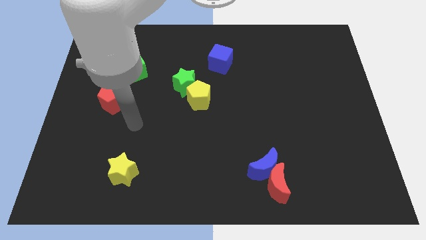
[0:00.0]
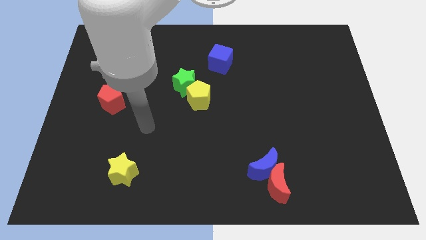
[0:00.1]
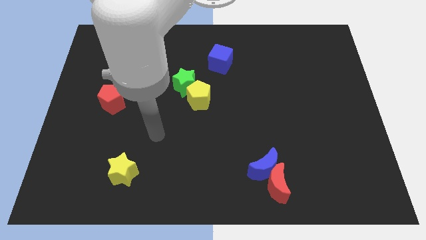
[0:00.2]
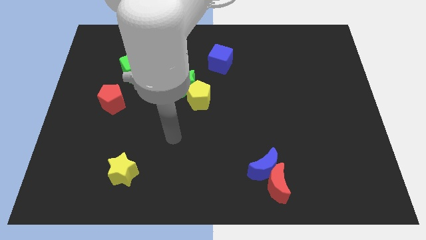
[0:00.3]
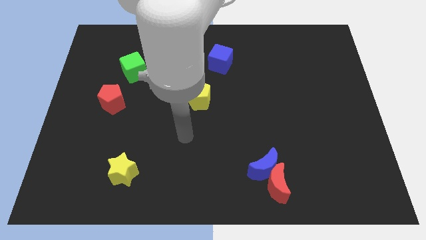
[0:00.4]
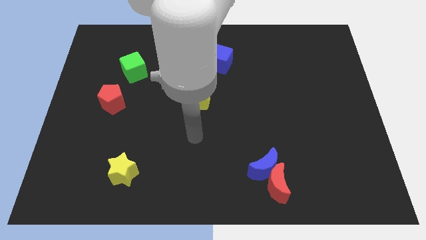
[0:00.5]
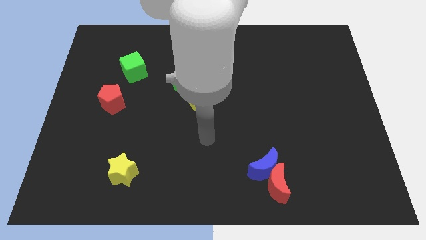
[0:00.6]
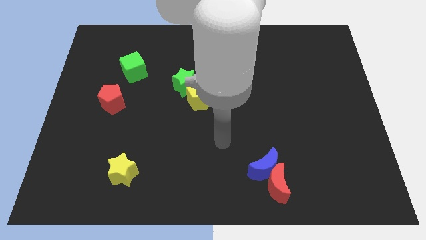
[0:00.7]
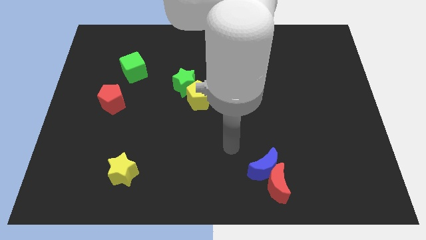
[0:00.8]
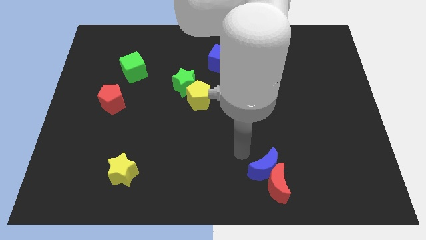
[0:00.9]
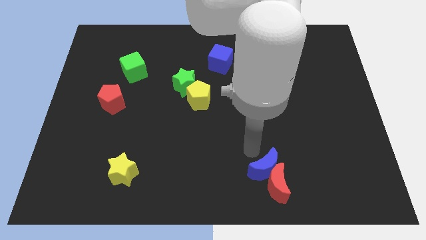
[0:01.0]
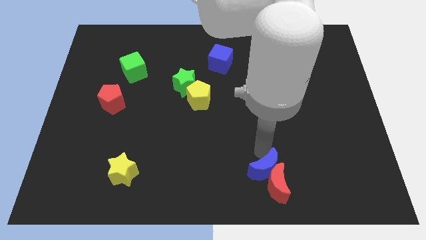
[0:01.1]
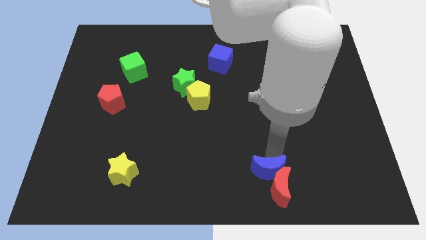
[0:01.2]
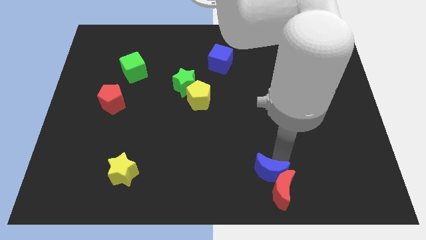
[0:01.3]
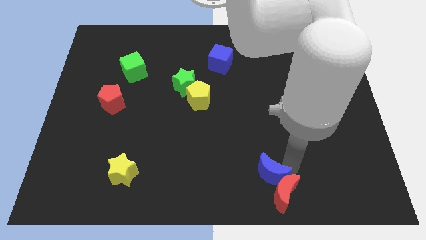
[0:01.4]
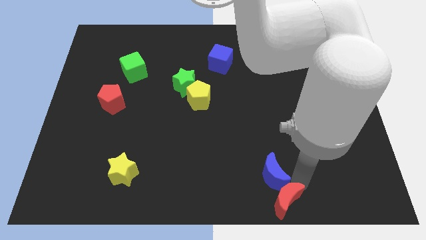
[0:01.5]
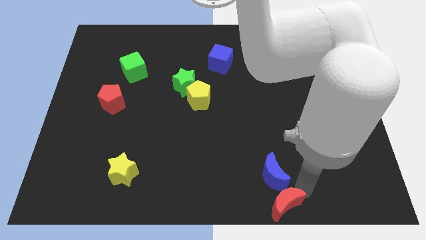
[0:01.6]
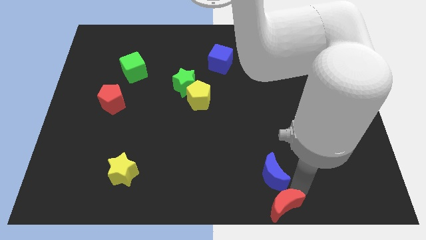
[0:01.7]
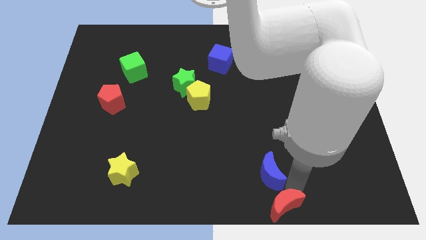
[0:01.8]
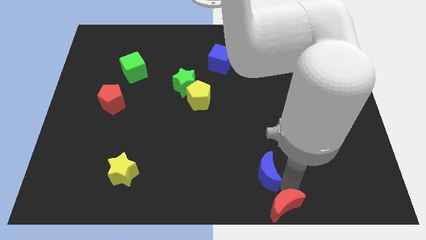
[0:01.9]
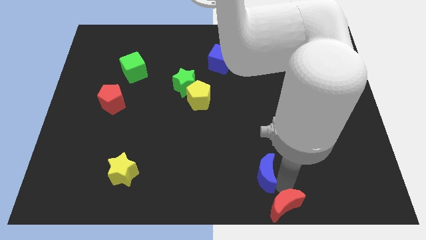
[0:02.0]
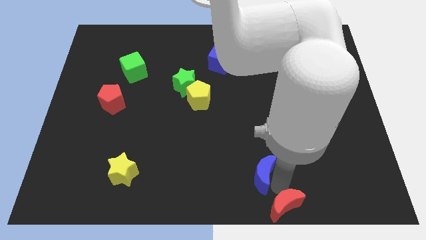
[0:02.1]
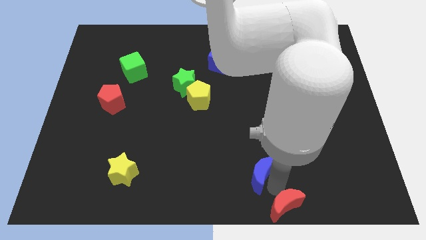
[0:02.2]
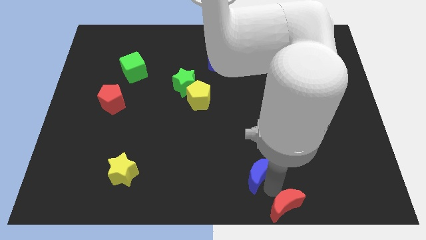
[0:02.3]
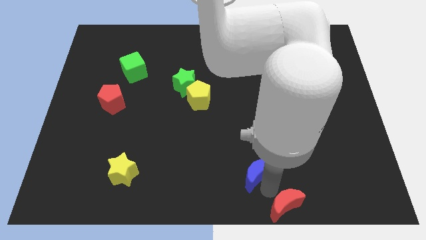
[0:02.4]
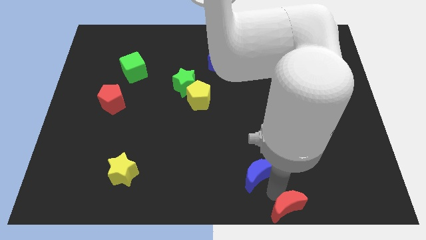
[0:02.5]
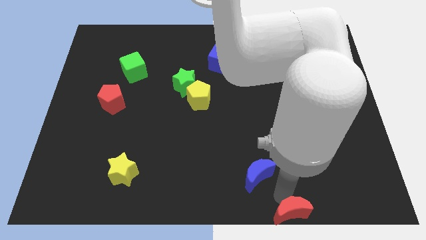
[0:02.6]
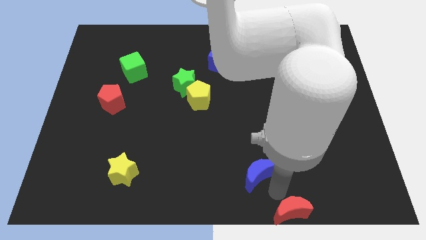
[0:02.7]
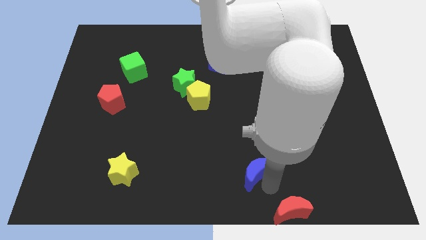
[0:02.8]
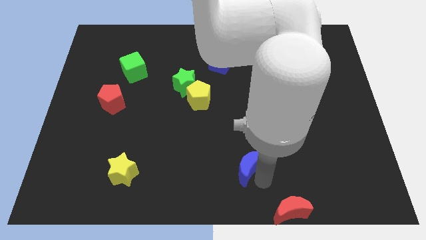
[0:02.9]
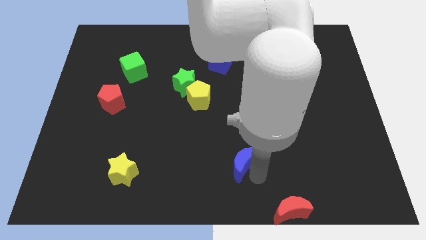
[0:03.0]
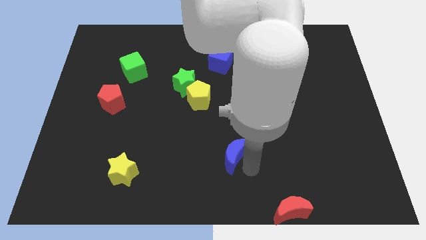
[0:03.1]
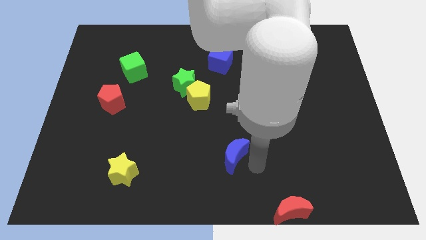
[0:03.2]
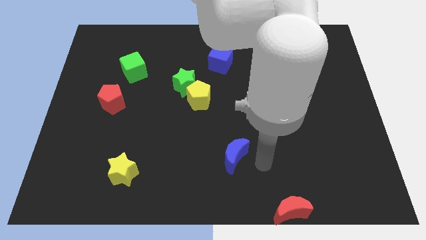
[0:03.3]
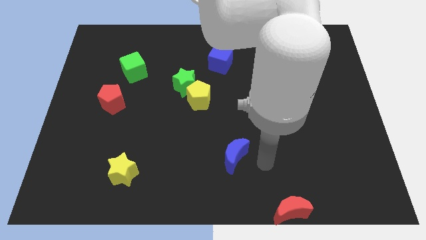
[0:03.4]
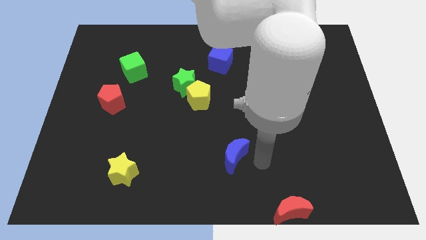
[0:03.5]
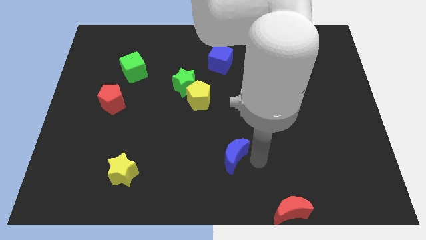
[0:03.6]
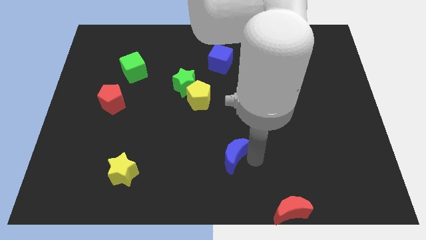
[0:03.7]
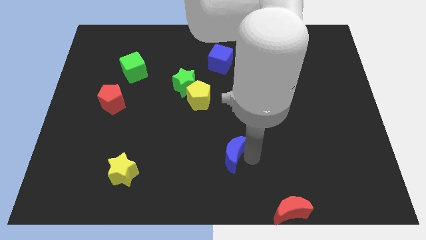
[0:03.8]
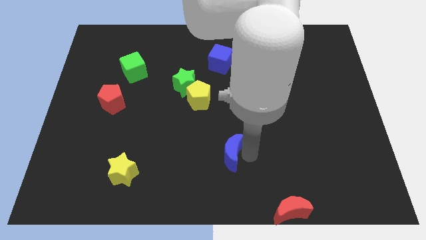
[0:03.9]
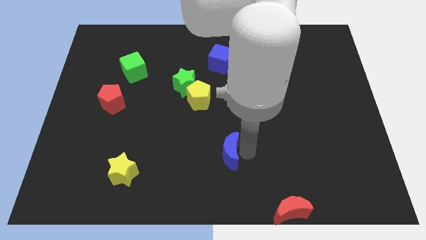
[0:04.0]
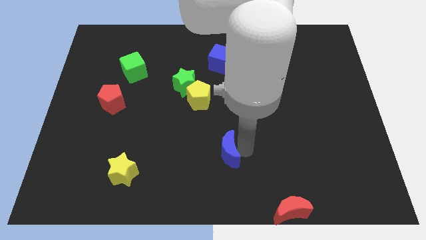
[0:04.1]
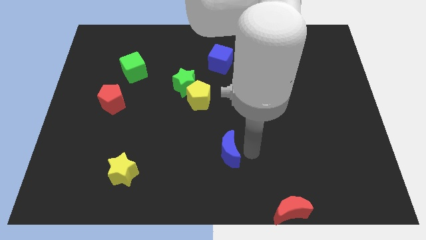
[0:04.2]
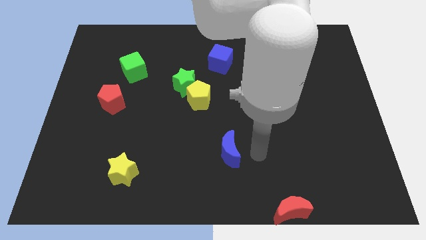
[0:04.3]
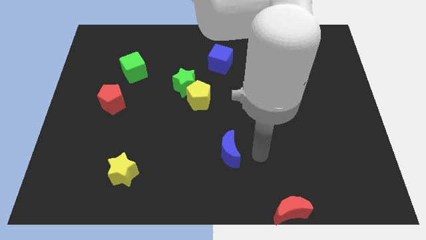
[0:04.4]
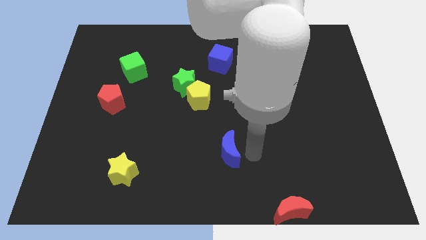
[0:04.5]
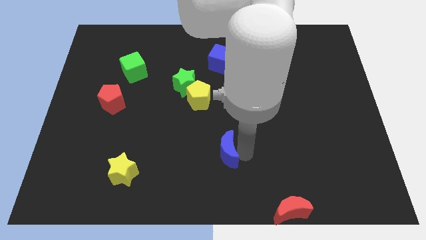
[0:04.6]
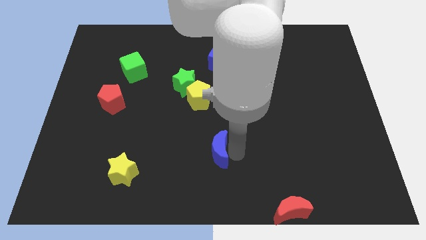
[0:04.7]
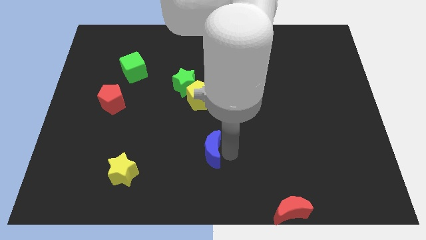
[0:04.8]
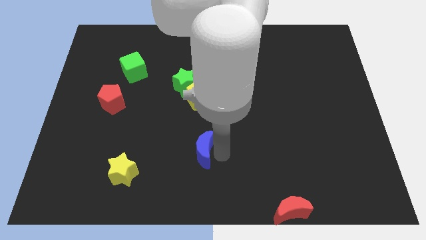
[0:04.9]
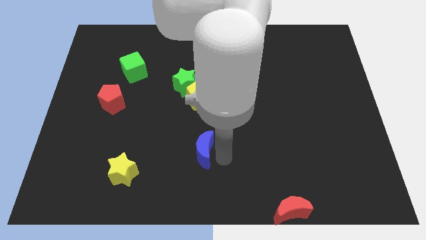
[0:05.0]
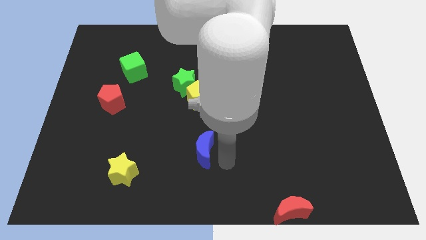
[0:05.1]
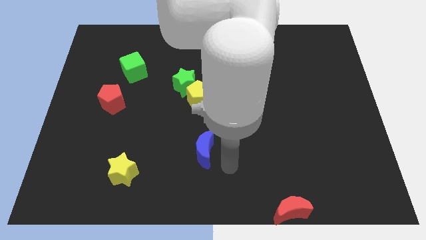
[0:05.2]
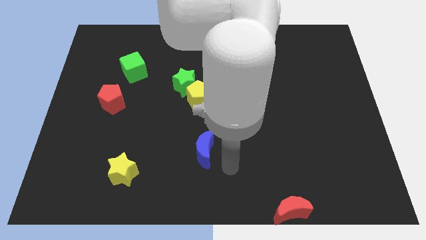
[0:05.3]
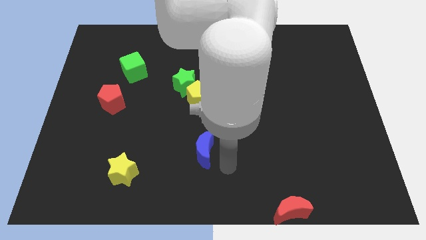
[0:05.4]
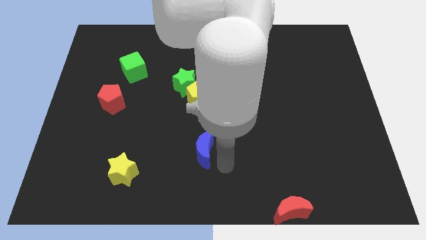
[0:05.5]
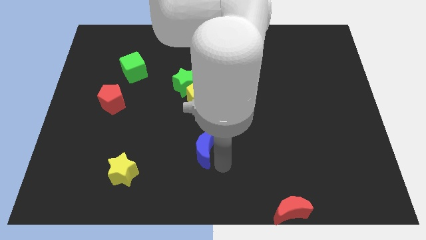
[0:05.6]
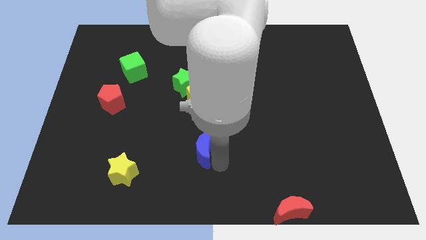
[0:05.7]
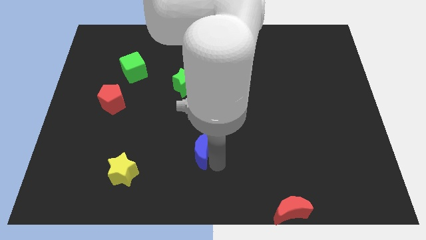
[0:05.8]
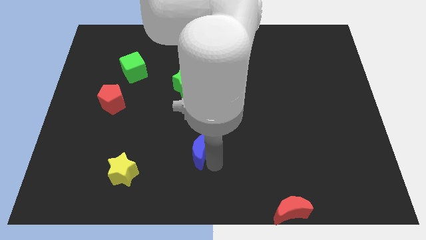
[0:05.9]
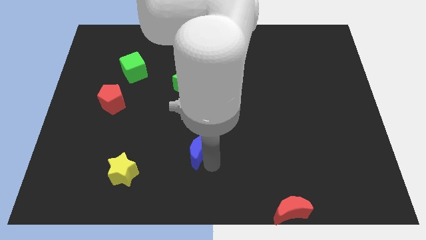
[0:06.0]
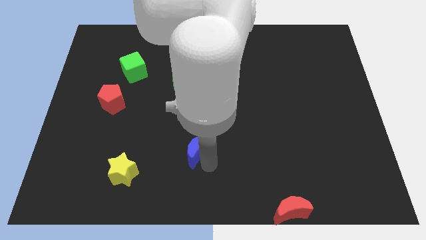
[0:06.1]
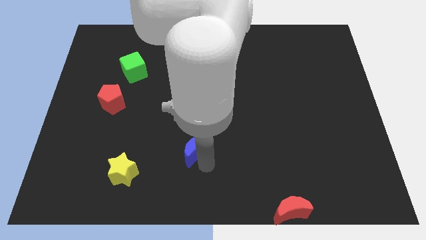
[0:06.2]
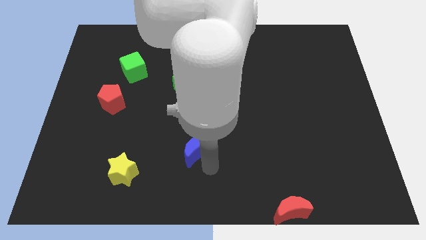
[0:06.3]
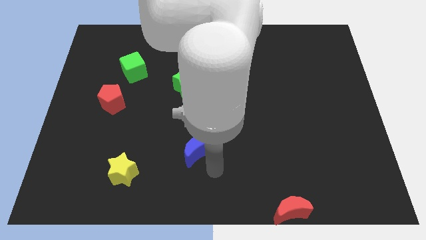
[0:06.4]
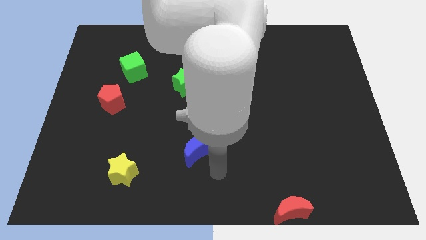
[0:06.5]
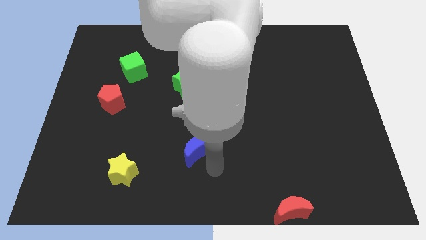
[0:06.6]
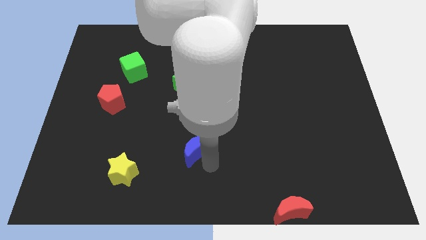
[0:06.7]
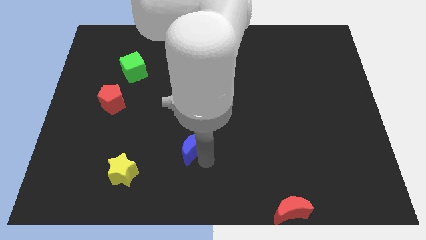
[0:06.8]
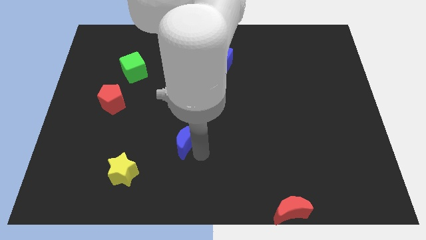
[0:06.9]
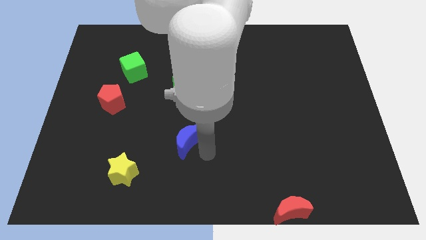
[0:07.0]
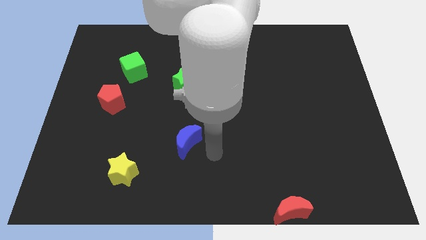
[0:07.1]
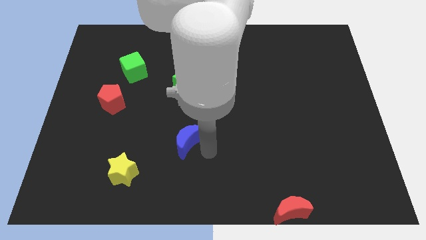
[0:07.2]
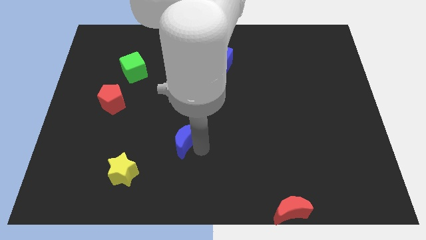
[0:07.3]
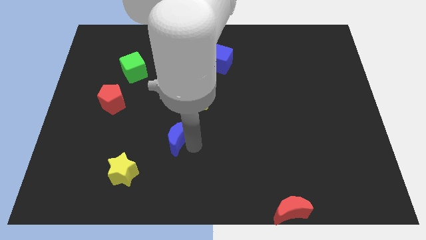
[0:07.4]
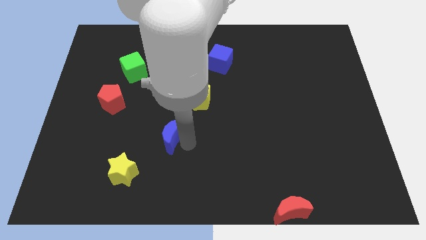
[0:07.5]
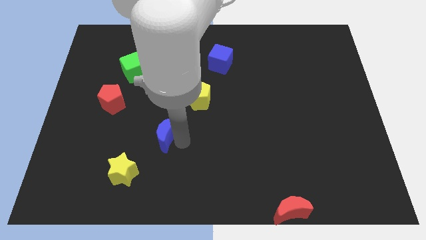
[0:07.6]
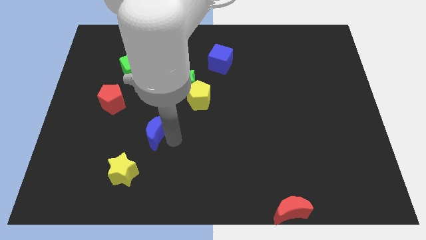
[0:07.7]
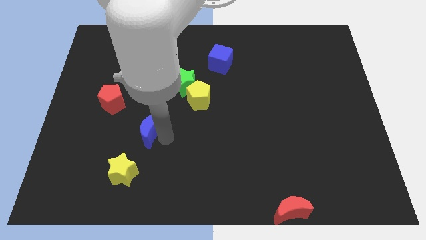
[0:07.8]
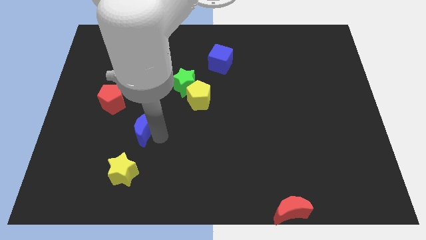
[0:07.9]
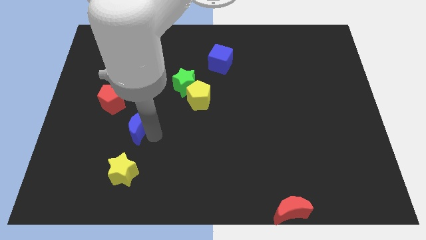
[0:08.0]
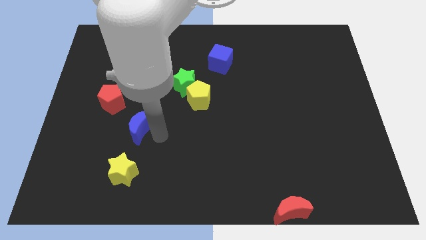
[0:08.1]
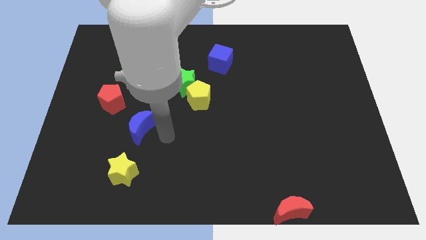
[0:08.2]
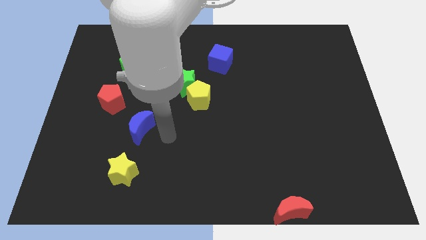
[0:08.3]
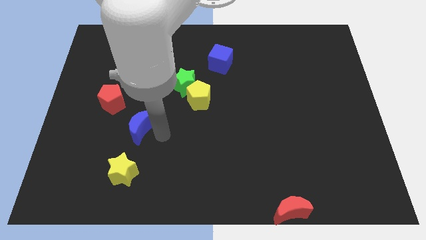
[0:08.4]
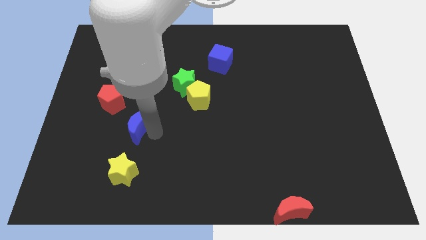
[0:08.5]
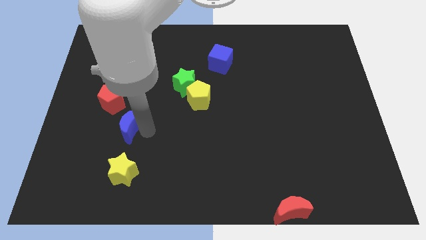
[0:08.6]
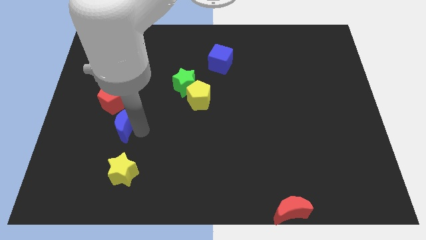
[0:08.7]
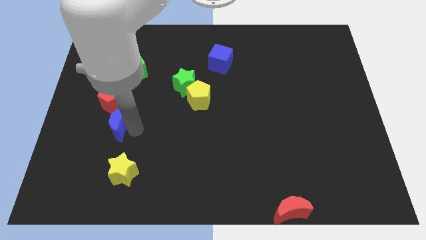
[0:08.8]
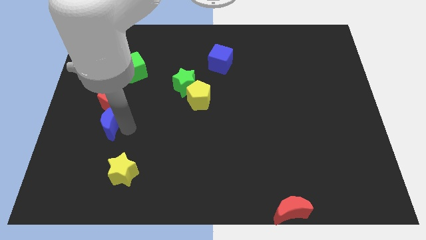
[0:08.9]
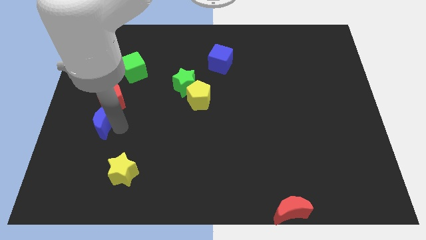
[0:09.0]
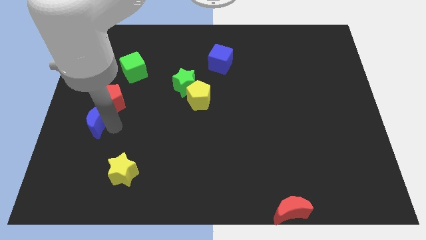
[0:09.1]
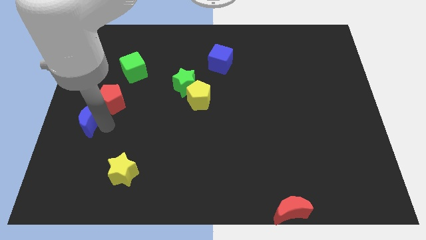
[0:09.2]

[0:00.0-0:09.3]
put the blue moon to the center left
